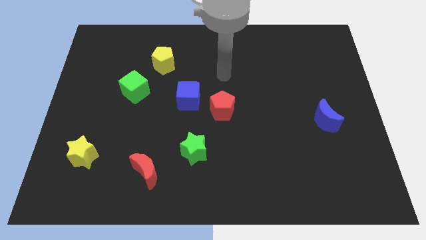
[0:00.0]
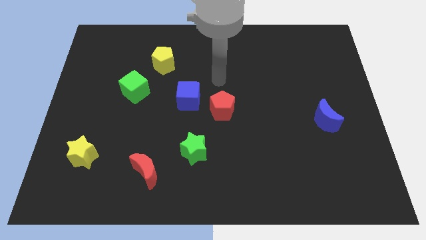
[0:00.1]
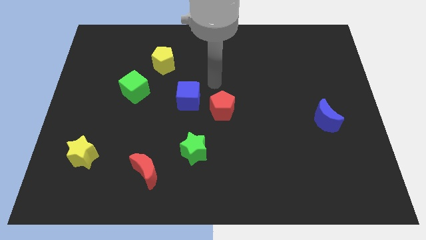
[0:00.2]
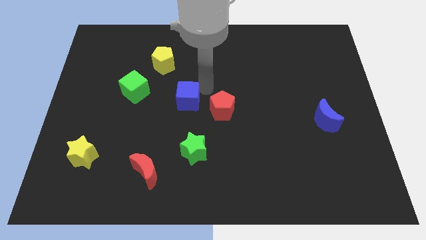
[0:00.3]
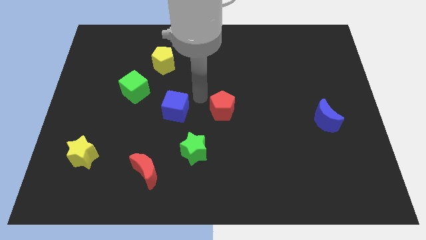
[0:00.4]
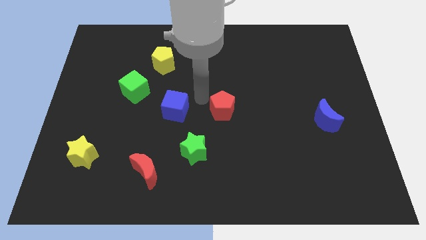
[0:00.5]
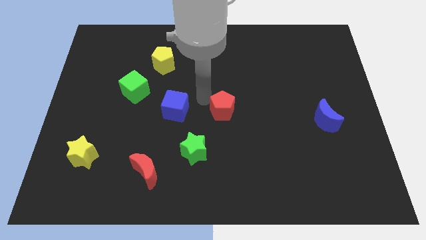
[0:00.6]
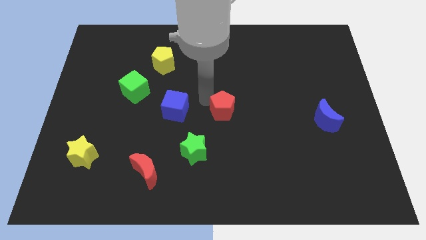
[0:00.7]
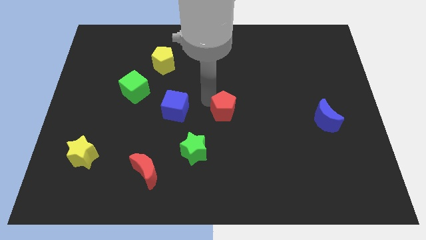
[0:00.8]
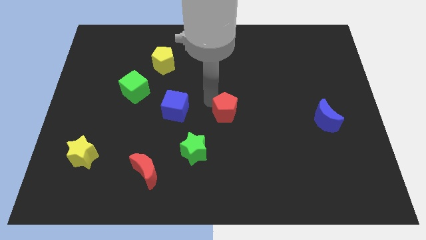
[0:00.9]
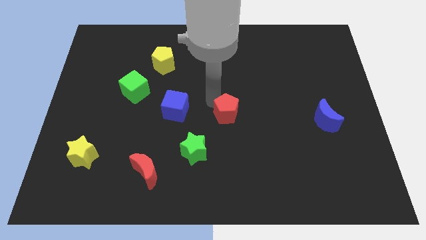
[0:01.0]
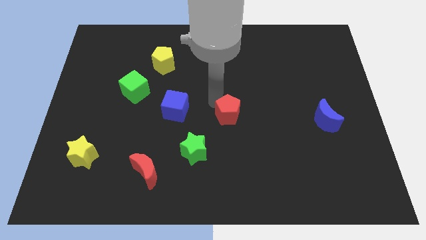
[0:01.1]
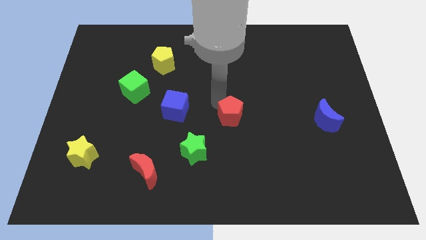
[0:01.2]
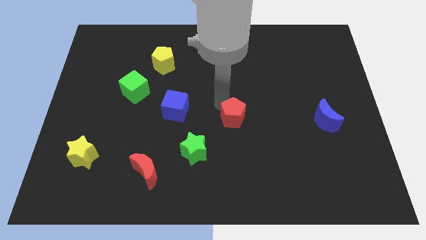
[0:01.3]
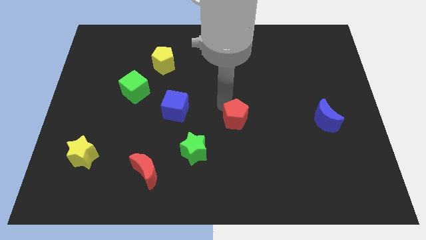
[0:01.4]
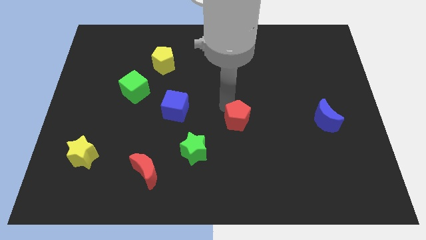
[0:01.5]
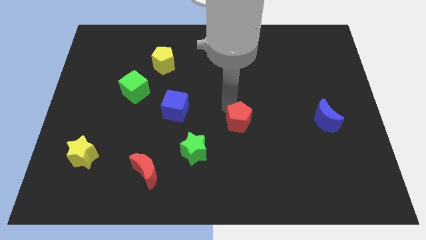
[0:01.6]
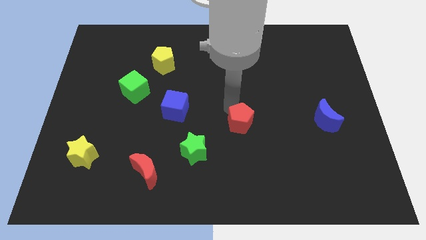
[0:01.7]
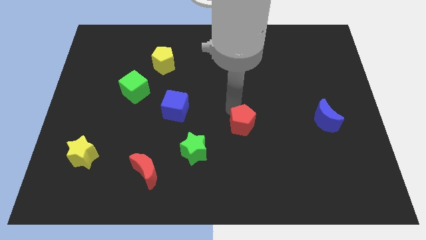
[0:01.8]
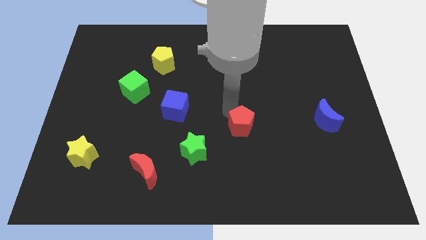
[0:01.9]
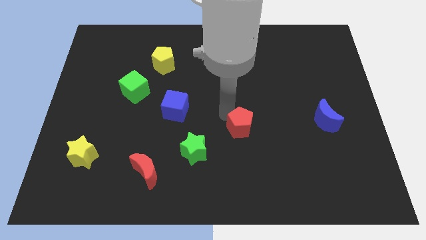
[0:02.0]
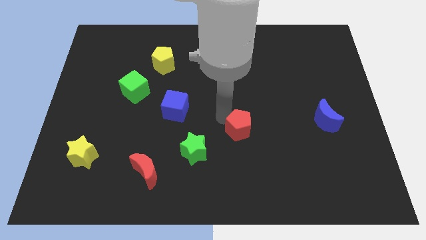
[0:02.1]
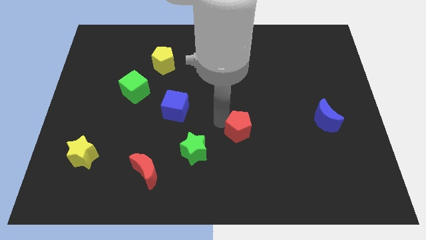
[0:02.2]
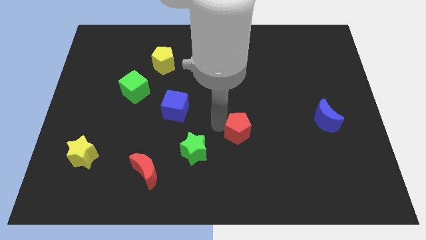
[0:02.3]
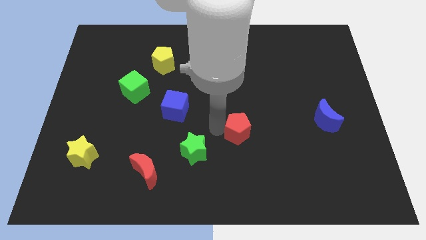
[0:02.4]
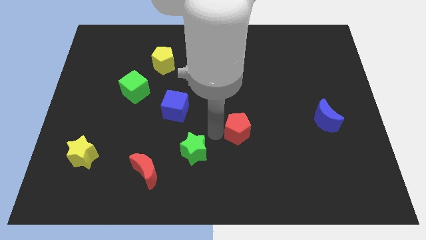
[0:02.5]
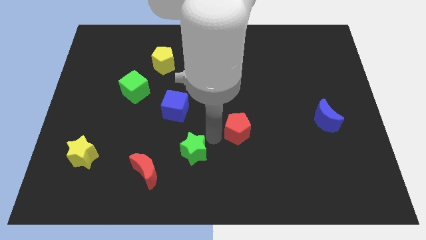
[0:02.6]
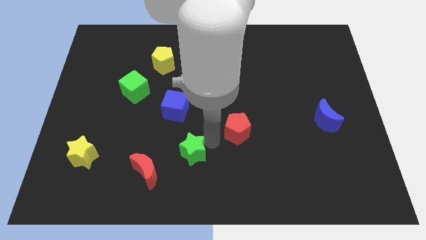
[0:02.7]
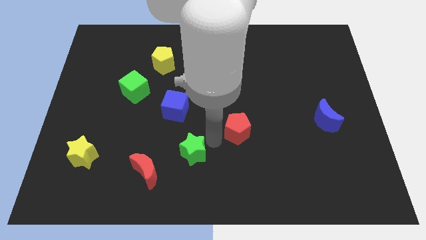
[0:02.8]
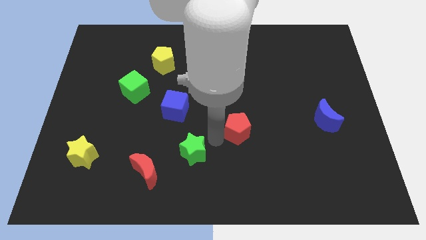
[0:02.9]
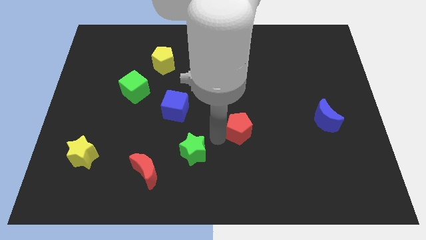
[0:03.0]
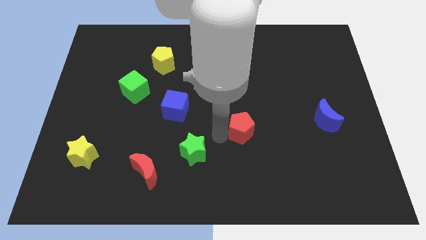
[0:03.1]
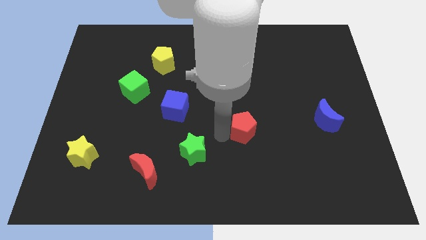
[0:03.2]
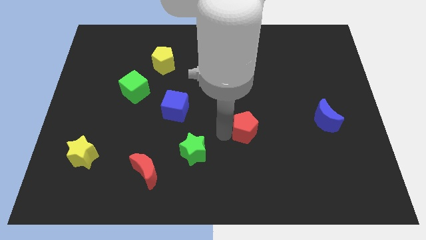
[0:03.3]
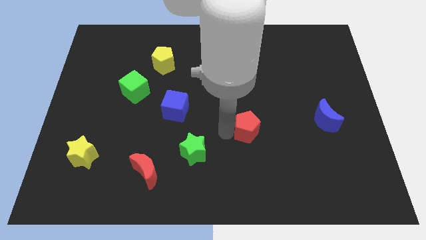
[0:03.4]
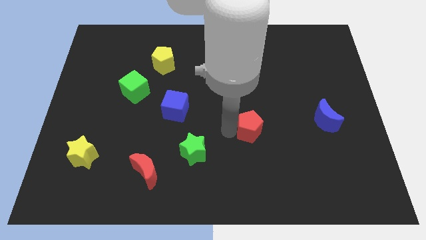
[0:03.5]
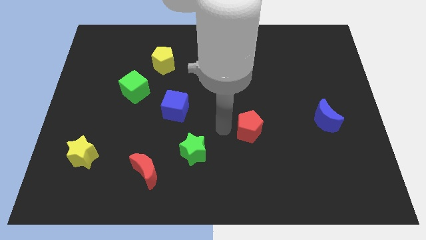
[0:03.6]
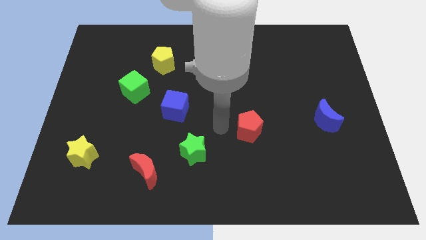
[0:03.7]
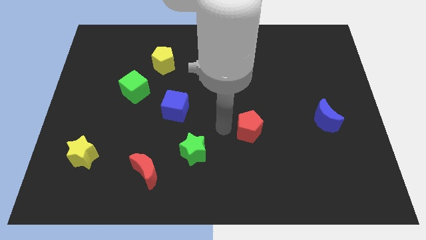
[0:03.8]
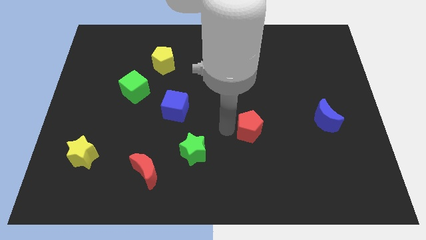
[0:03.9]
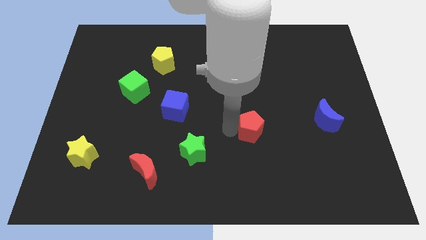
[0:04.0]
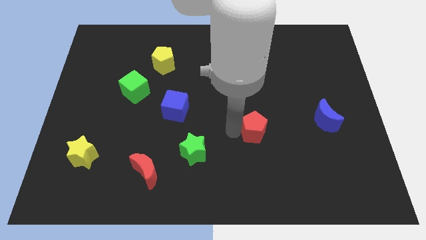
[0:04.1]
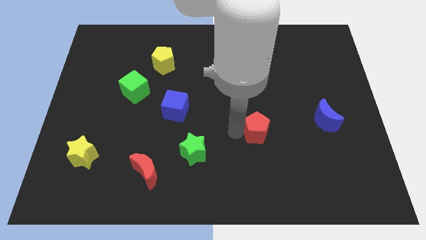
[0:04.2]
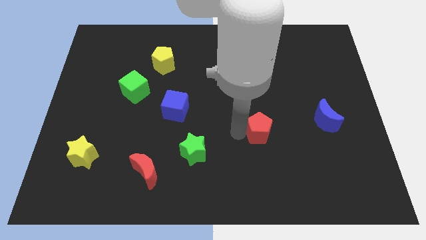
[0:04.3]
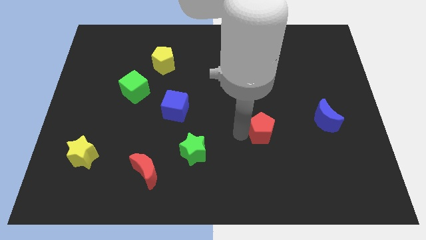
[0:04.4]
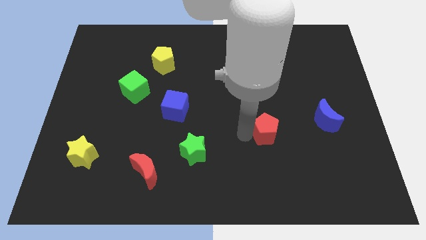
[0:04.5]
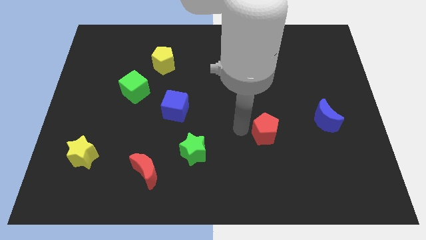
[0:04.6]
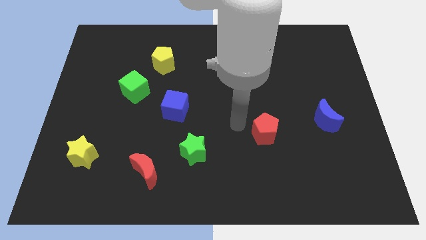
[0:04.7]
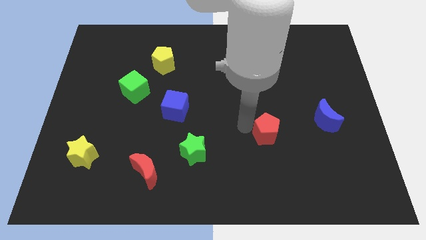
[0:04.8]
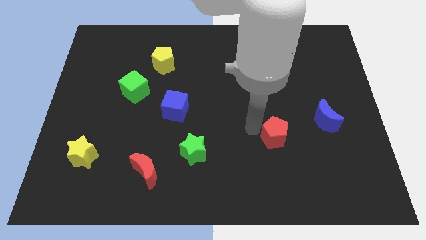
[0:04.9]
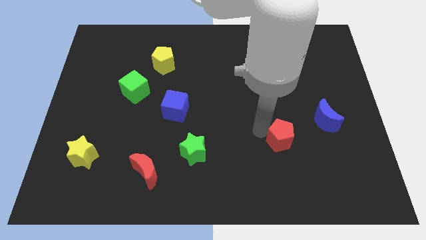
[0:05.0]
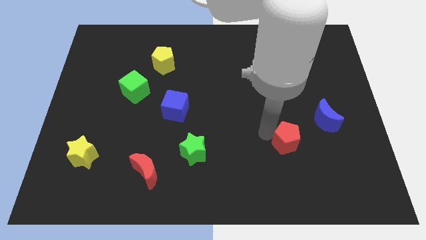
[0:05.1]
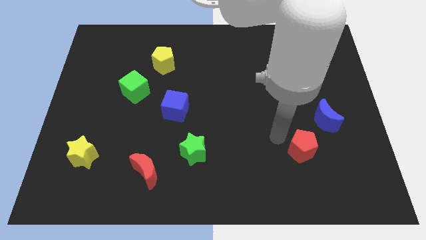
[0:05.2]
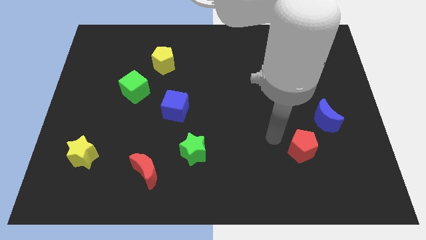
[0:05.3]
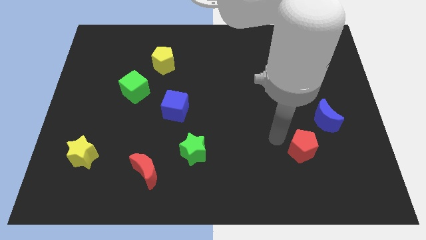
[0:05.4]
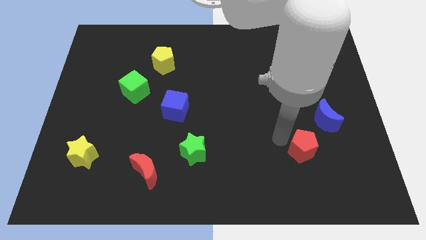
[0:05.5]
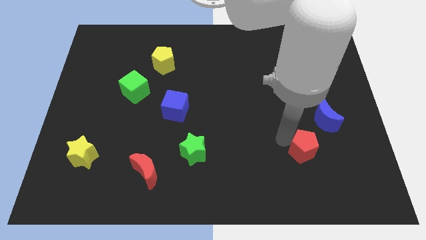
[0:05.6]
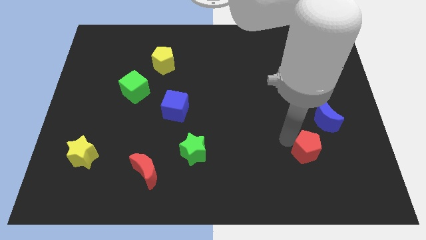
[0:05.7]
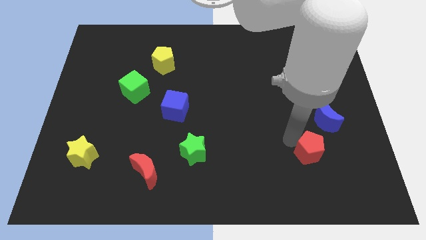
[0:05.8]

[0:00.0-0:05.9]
put the red pentagon to the bottom side of the blue moon

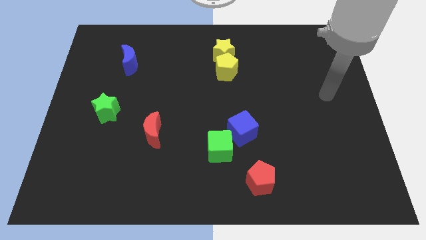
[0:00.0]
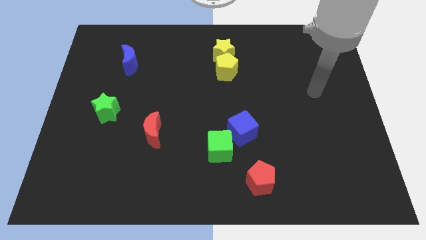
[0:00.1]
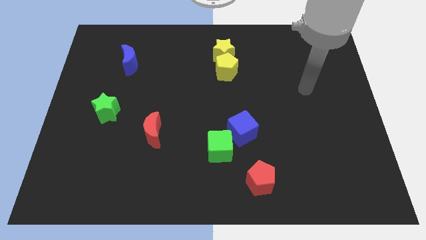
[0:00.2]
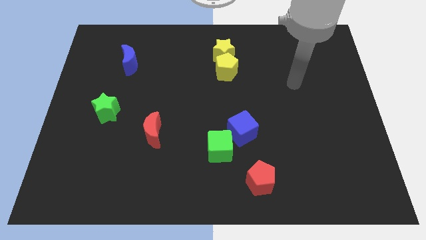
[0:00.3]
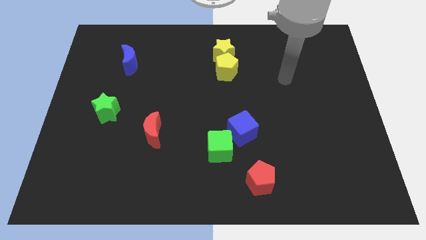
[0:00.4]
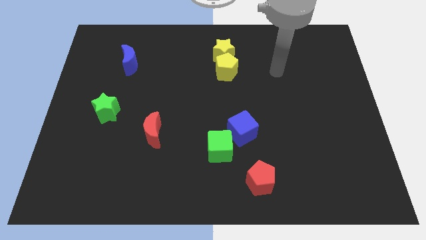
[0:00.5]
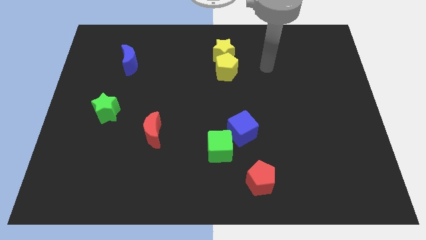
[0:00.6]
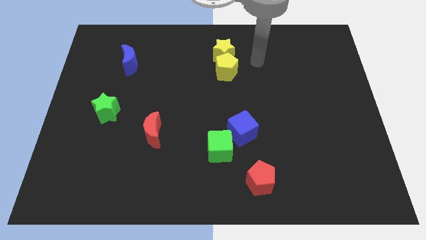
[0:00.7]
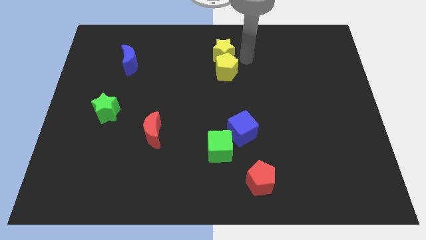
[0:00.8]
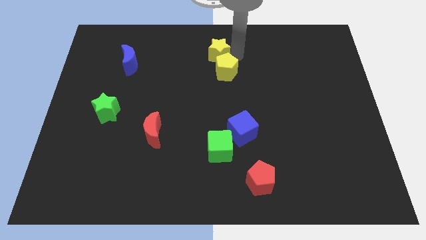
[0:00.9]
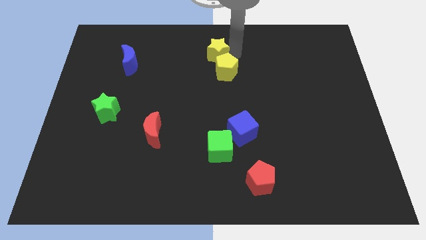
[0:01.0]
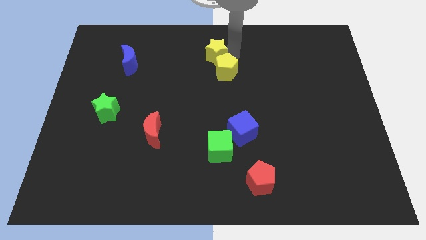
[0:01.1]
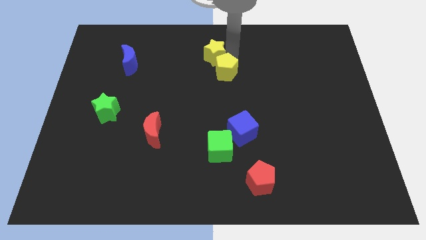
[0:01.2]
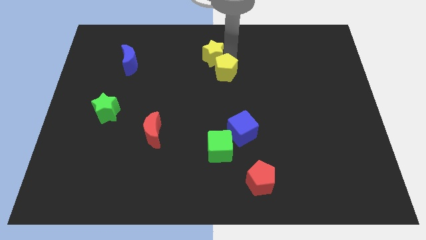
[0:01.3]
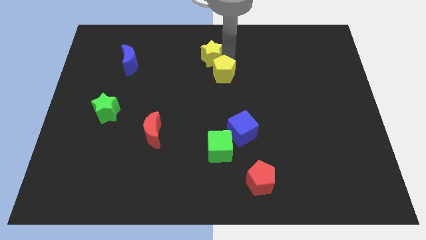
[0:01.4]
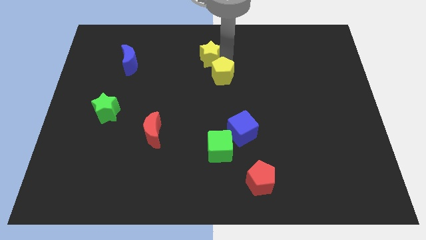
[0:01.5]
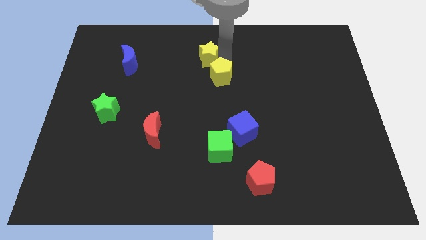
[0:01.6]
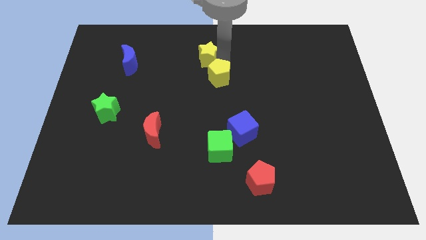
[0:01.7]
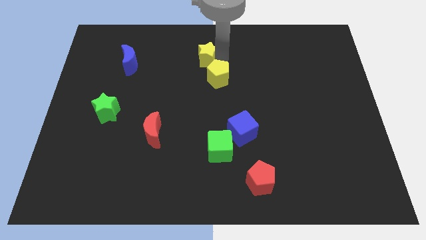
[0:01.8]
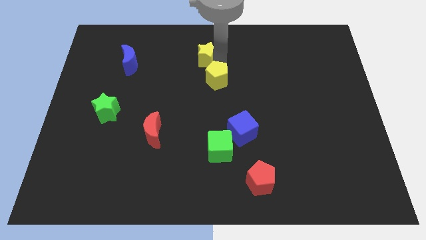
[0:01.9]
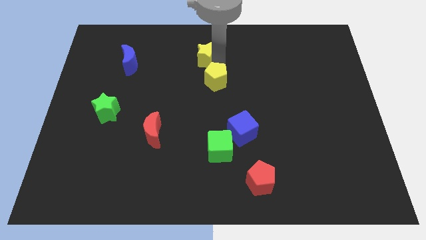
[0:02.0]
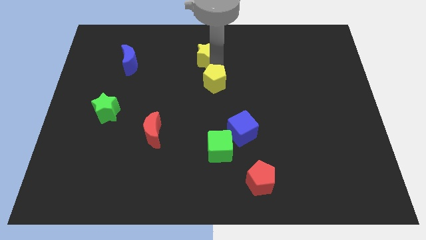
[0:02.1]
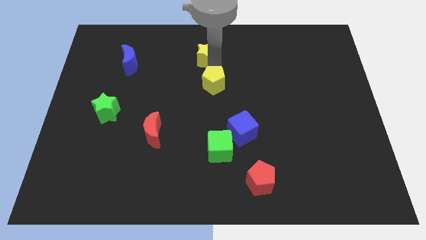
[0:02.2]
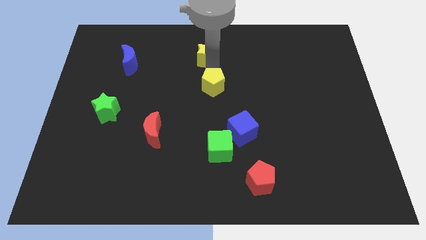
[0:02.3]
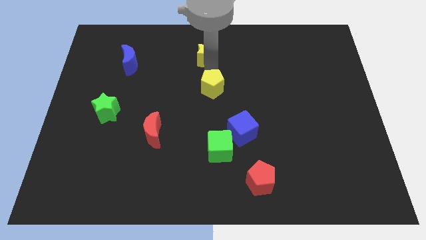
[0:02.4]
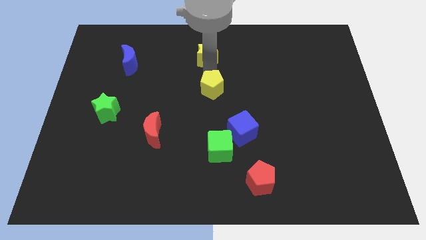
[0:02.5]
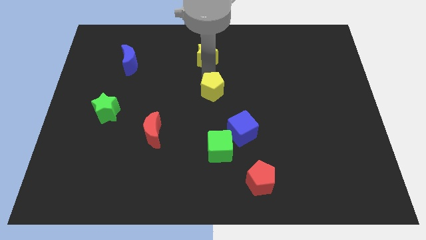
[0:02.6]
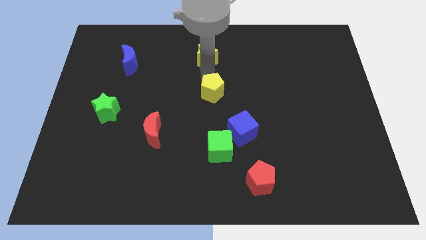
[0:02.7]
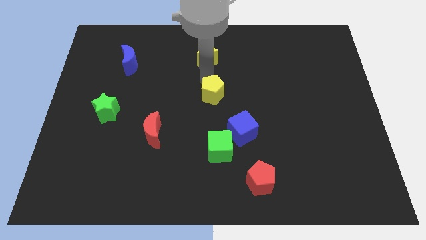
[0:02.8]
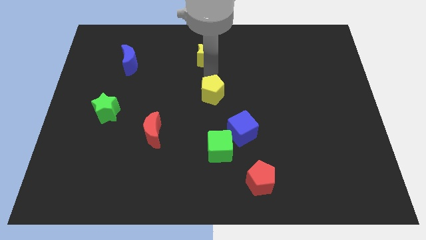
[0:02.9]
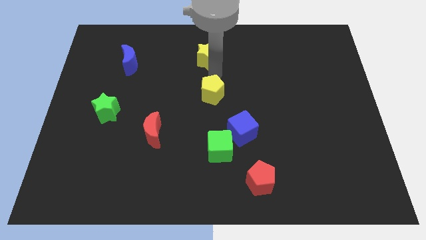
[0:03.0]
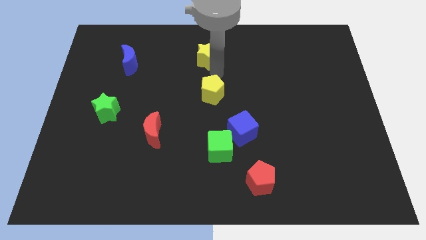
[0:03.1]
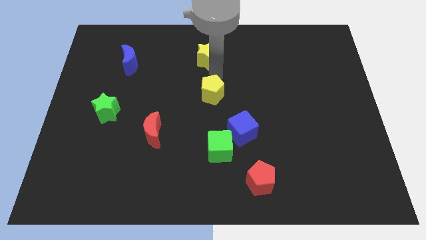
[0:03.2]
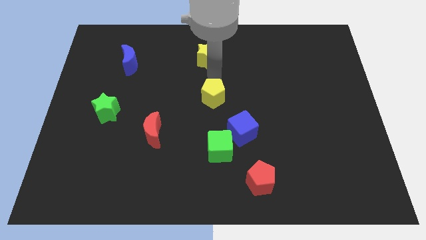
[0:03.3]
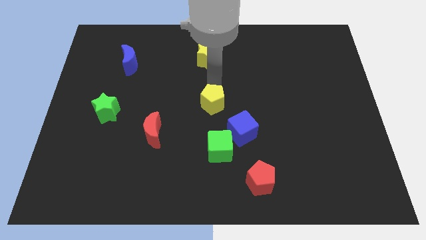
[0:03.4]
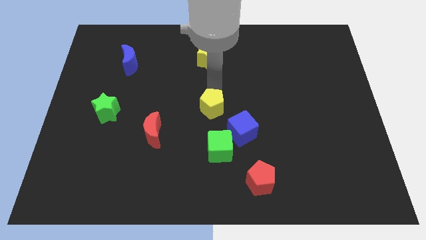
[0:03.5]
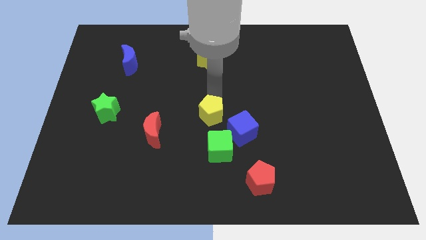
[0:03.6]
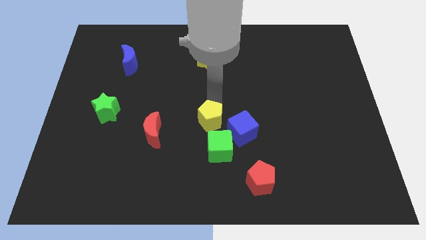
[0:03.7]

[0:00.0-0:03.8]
slide the yellow pentagon to the top left side of the green cube
